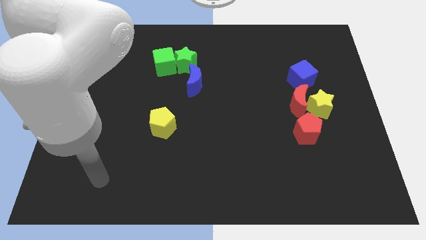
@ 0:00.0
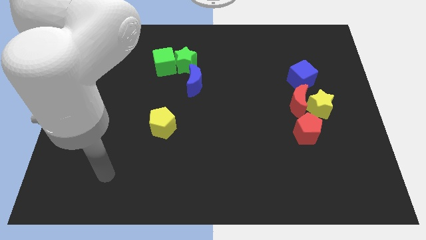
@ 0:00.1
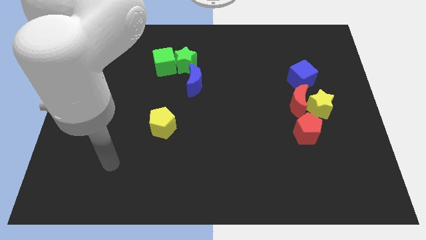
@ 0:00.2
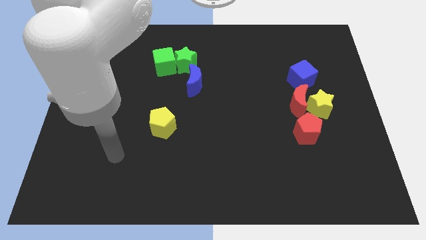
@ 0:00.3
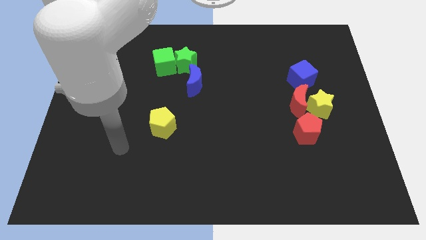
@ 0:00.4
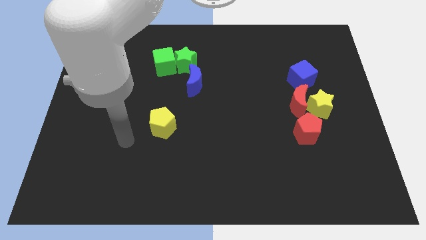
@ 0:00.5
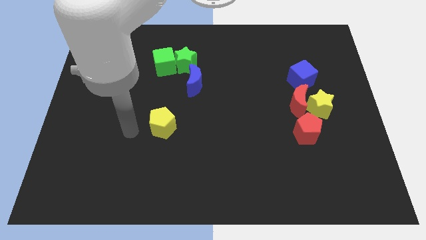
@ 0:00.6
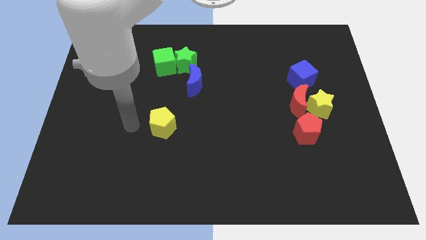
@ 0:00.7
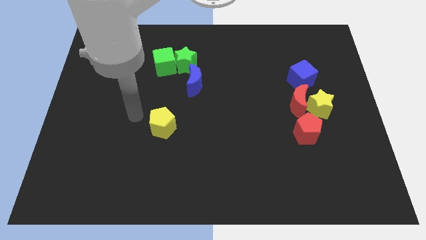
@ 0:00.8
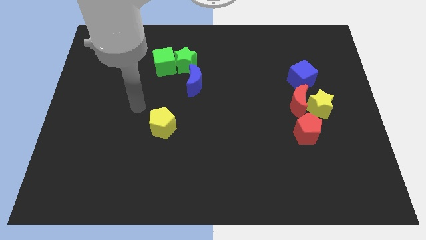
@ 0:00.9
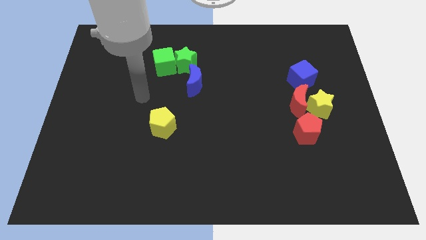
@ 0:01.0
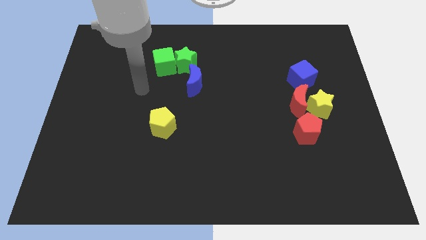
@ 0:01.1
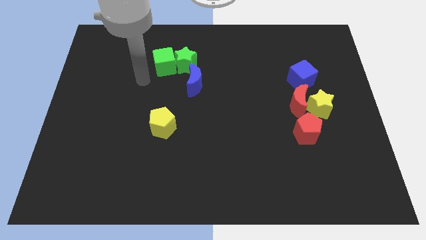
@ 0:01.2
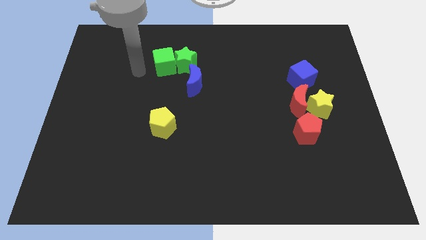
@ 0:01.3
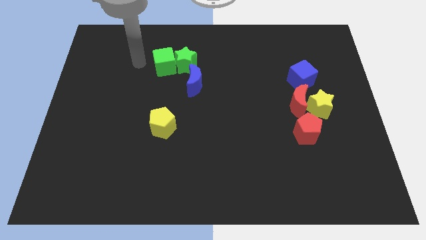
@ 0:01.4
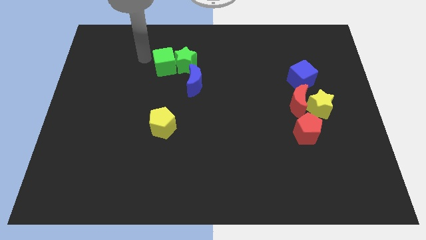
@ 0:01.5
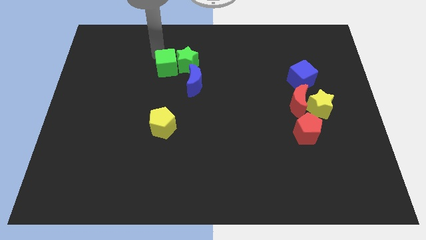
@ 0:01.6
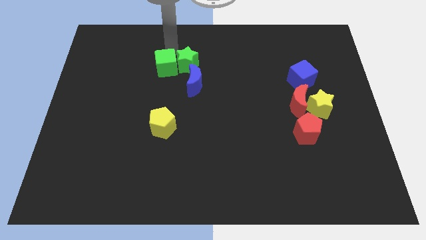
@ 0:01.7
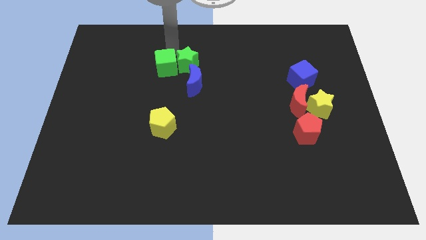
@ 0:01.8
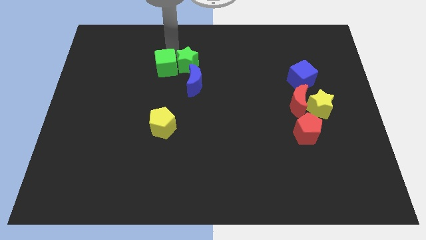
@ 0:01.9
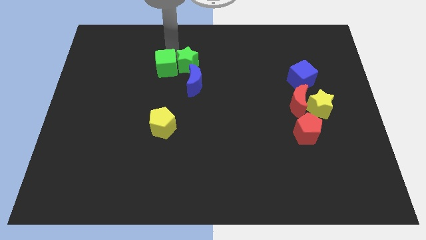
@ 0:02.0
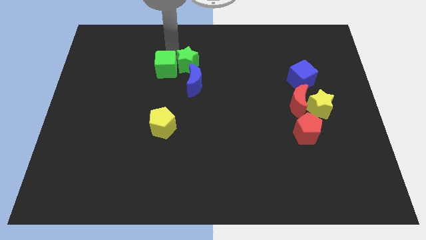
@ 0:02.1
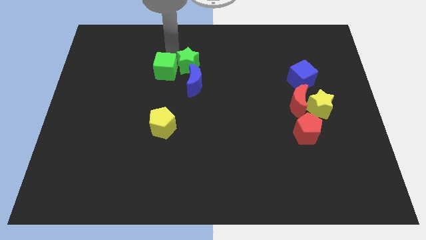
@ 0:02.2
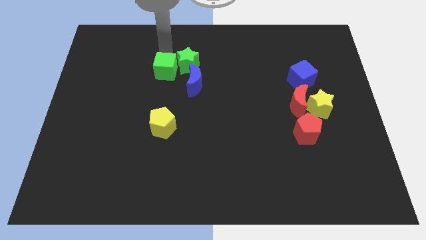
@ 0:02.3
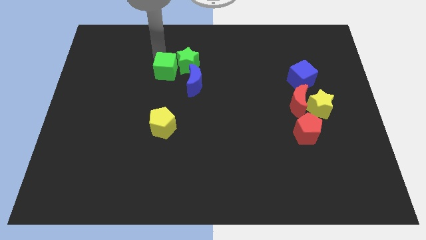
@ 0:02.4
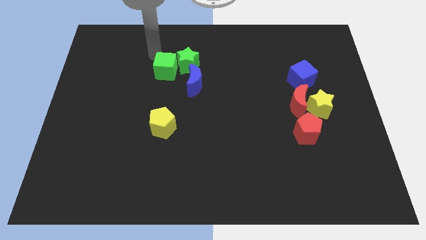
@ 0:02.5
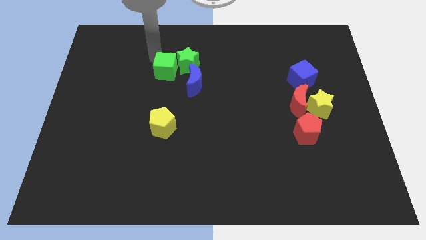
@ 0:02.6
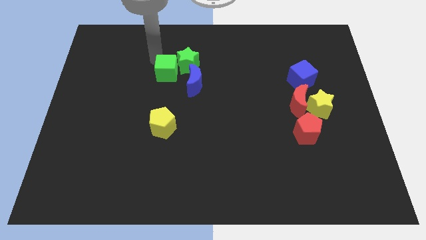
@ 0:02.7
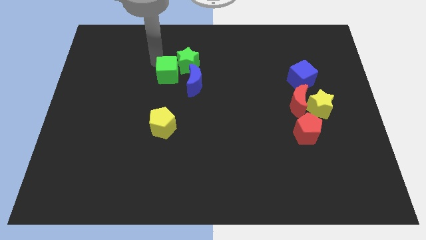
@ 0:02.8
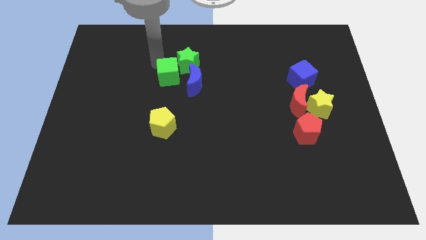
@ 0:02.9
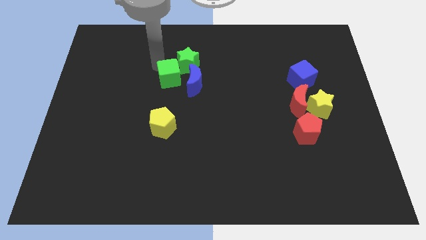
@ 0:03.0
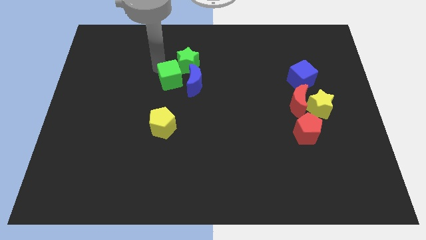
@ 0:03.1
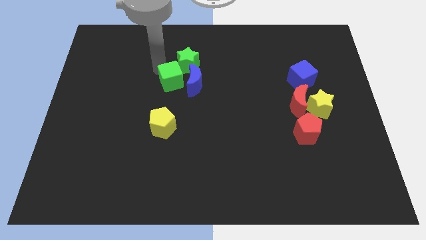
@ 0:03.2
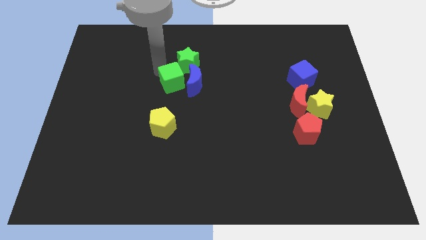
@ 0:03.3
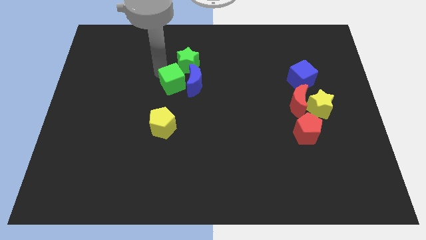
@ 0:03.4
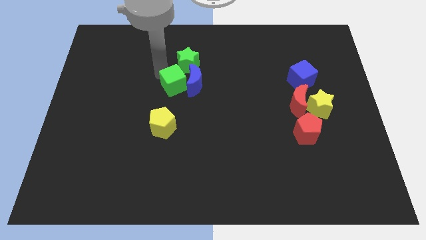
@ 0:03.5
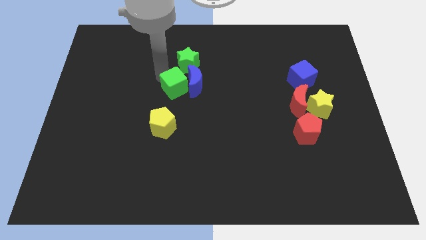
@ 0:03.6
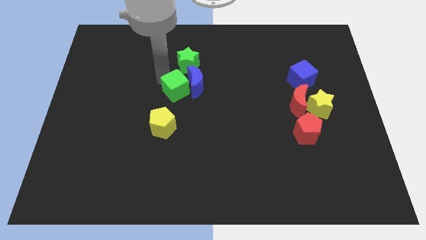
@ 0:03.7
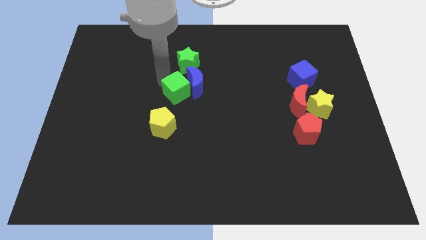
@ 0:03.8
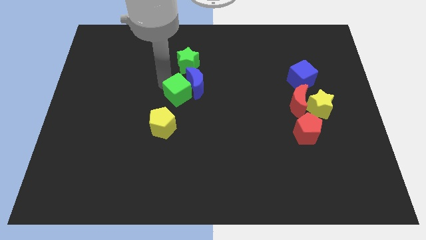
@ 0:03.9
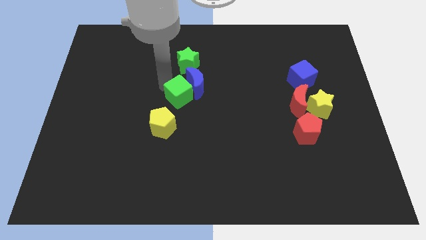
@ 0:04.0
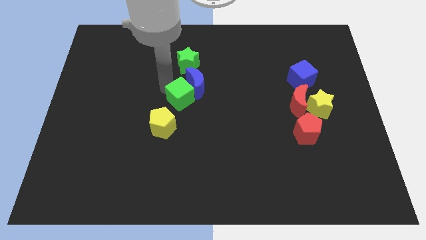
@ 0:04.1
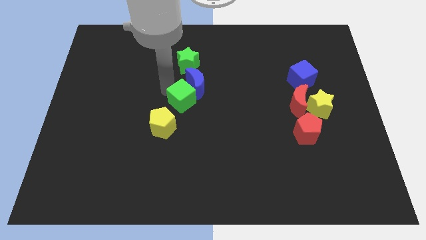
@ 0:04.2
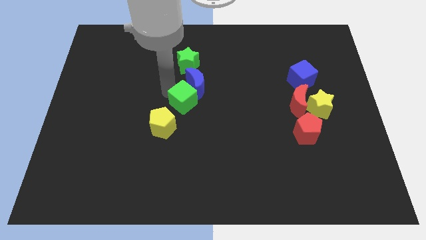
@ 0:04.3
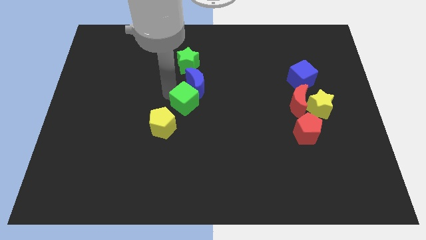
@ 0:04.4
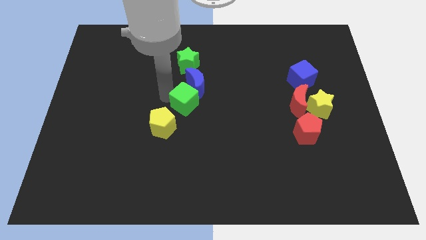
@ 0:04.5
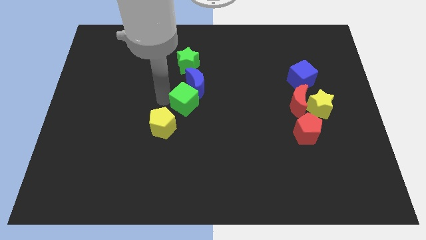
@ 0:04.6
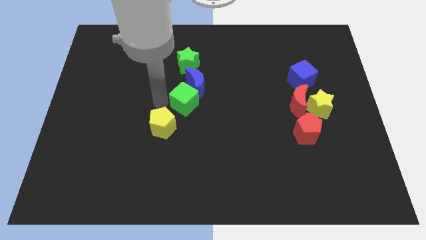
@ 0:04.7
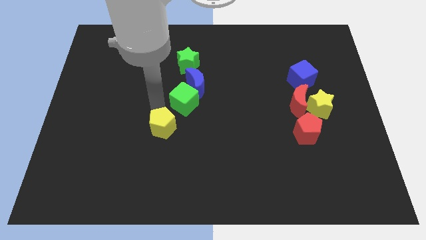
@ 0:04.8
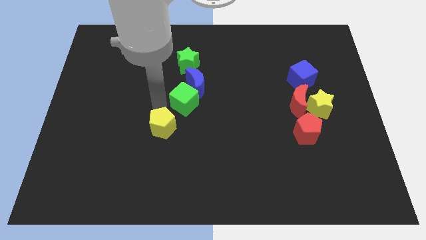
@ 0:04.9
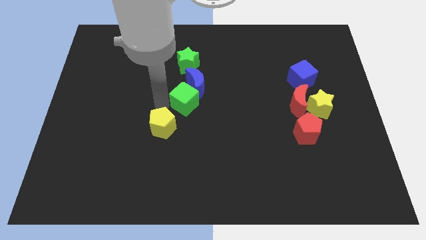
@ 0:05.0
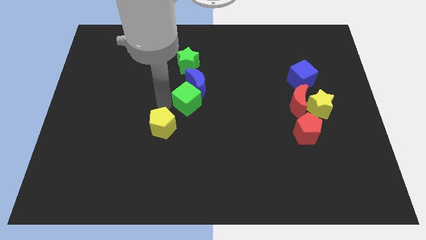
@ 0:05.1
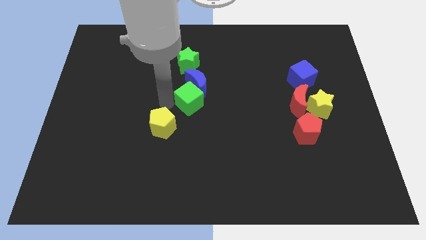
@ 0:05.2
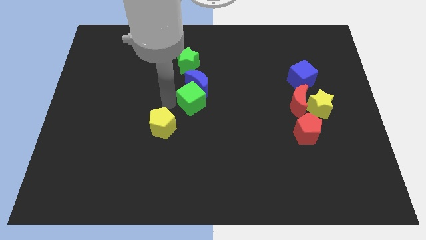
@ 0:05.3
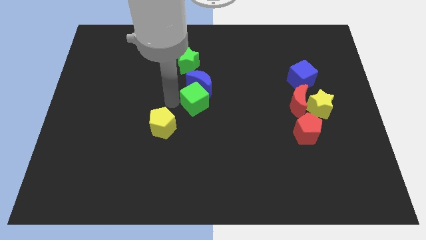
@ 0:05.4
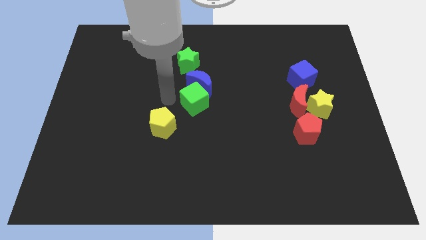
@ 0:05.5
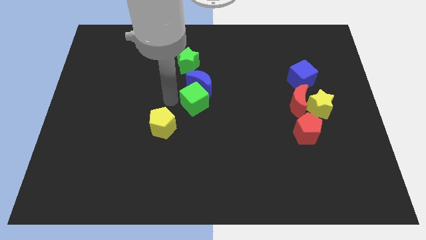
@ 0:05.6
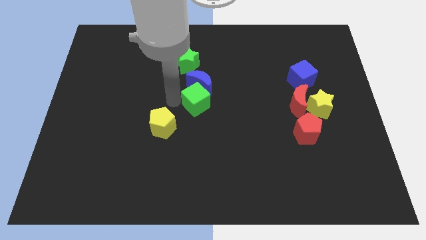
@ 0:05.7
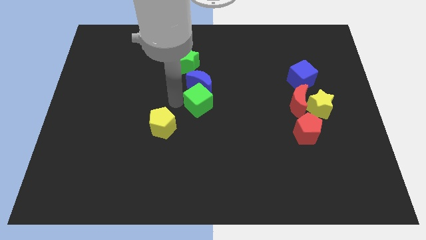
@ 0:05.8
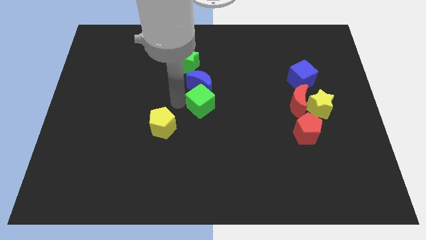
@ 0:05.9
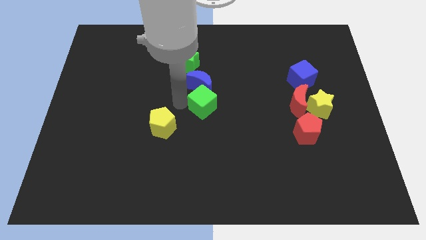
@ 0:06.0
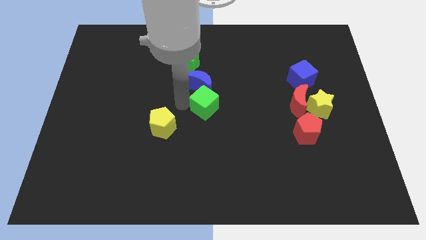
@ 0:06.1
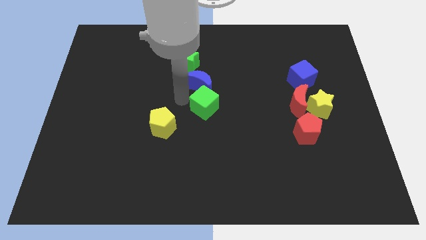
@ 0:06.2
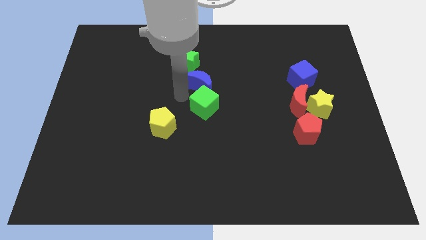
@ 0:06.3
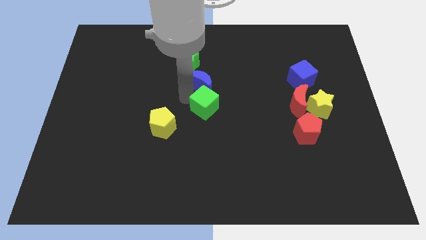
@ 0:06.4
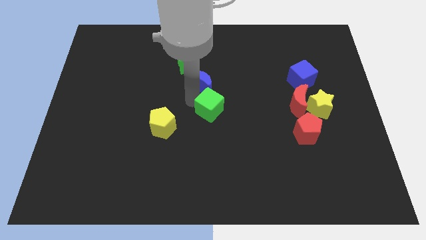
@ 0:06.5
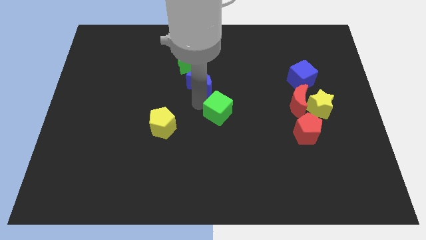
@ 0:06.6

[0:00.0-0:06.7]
push the green cube diagonally downwards and right

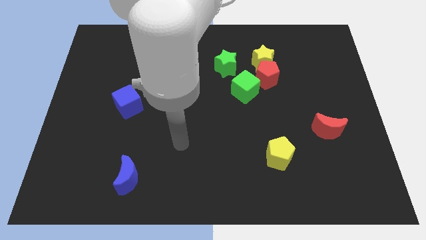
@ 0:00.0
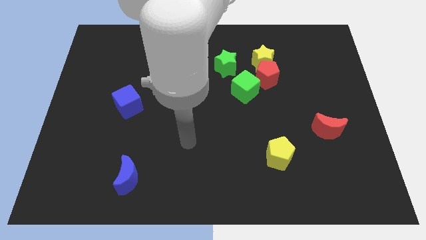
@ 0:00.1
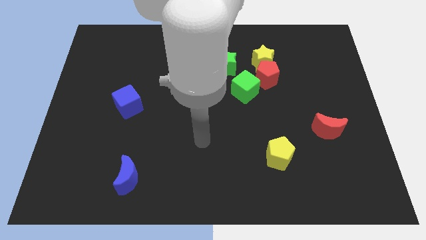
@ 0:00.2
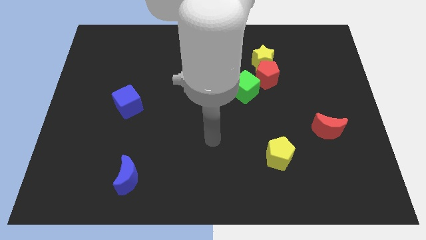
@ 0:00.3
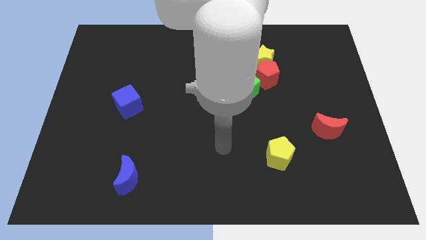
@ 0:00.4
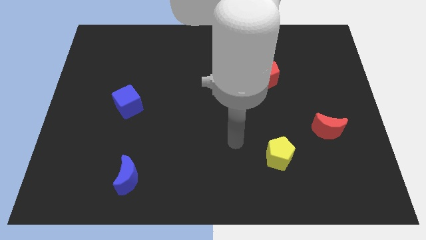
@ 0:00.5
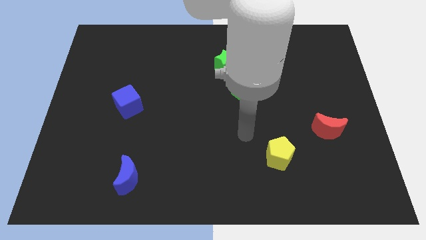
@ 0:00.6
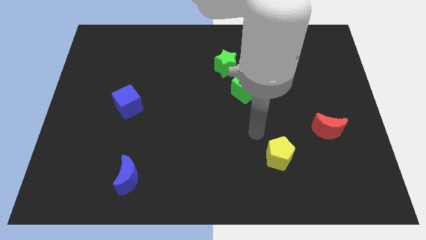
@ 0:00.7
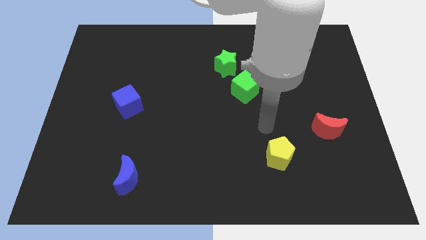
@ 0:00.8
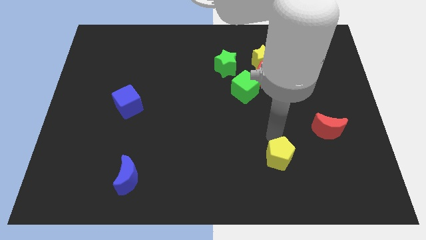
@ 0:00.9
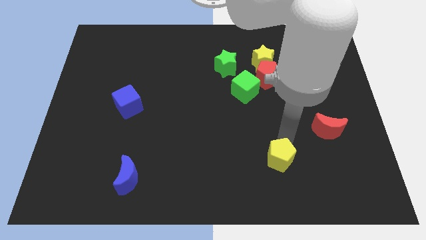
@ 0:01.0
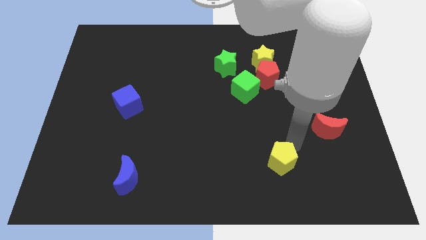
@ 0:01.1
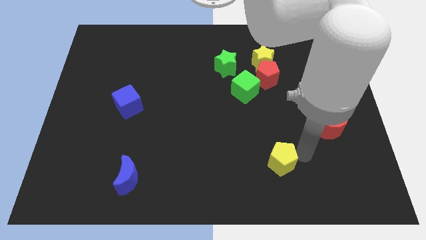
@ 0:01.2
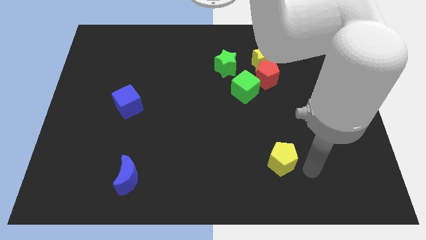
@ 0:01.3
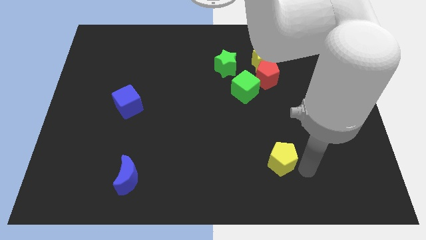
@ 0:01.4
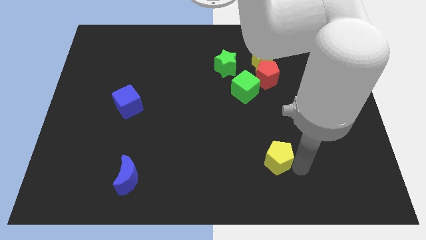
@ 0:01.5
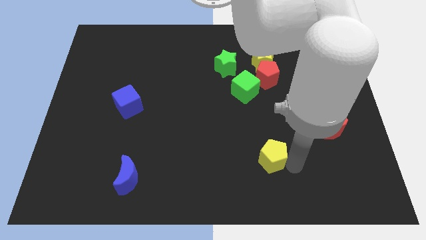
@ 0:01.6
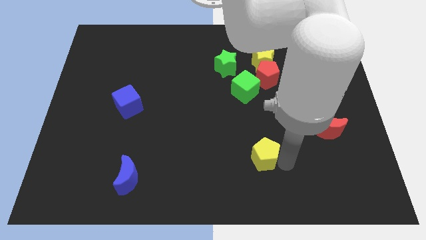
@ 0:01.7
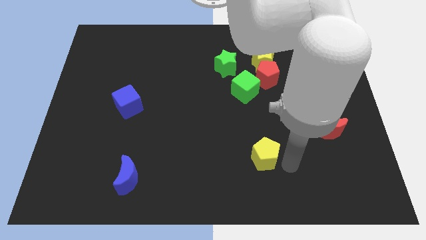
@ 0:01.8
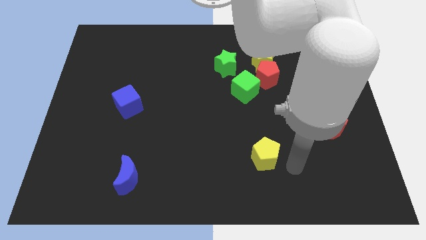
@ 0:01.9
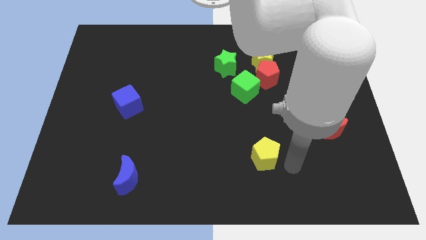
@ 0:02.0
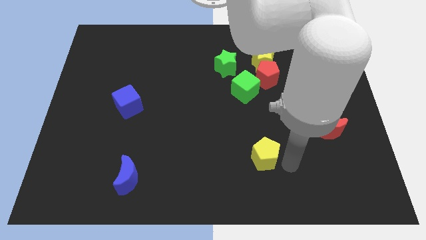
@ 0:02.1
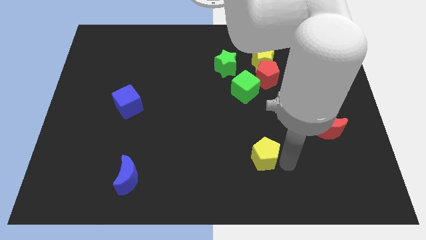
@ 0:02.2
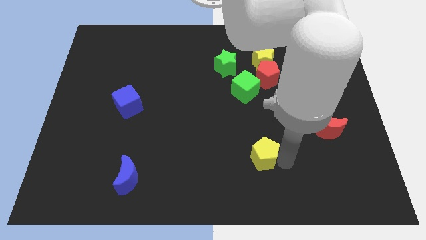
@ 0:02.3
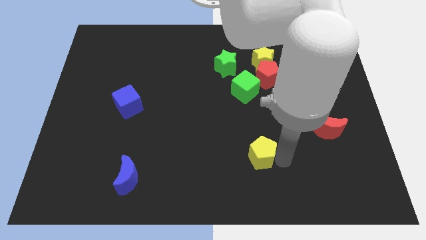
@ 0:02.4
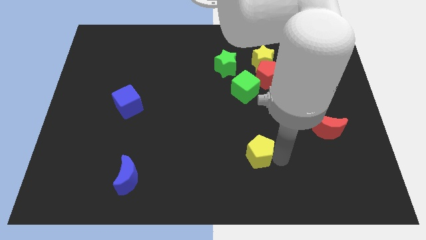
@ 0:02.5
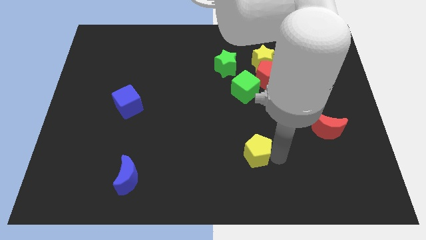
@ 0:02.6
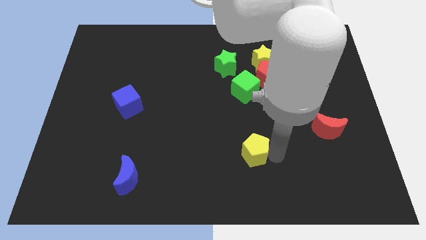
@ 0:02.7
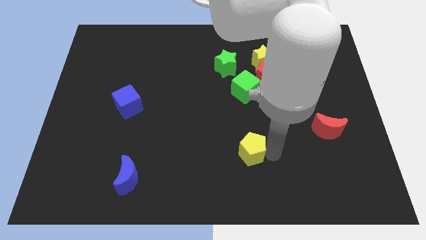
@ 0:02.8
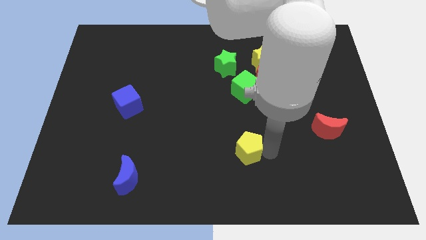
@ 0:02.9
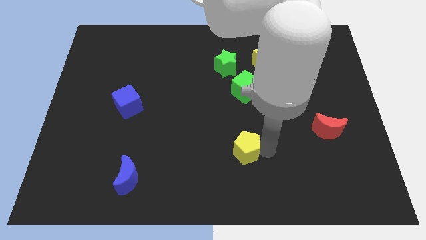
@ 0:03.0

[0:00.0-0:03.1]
move the yellow pentagon left a little bit
